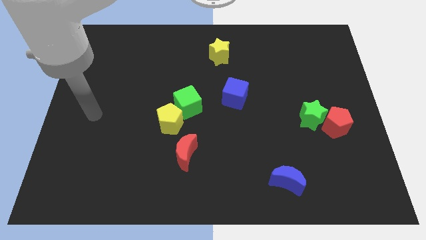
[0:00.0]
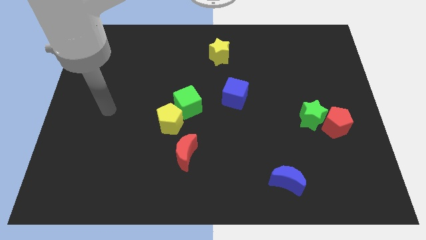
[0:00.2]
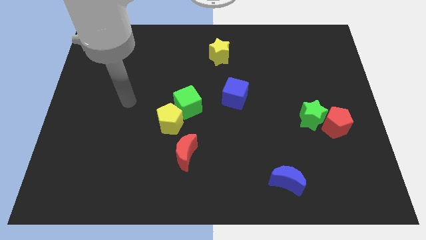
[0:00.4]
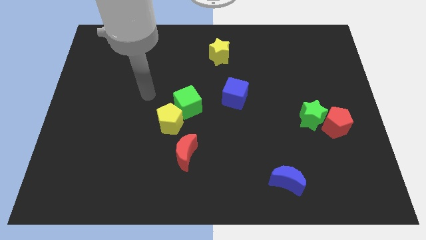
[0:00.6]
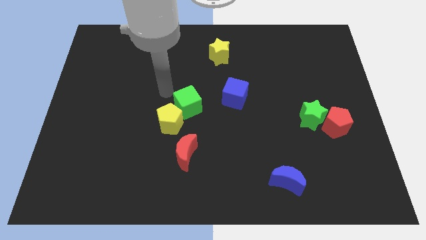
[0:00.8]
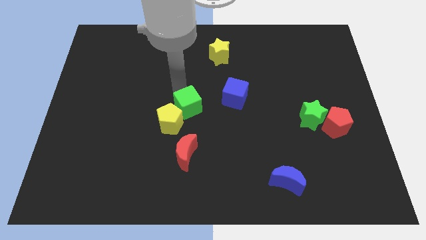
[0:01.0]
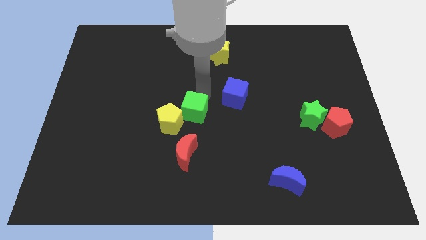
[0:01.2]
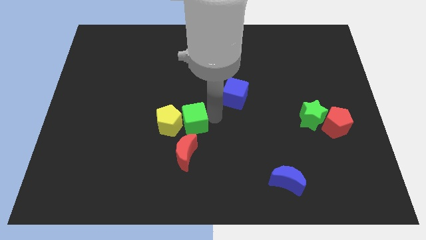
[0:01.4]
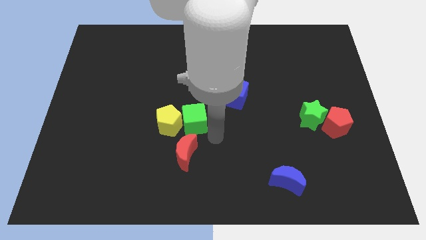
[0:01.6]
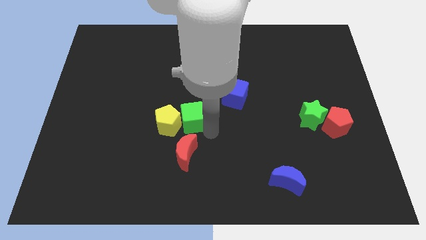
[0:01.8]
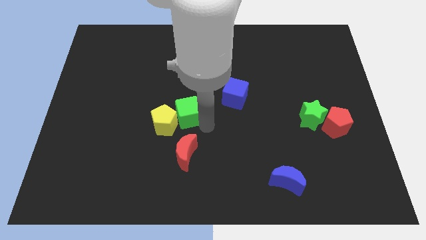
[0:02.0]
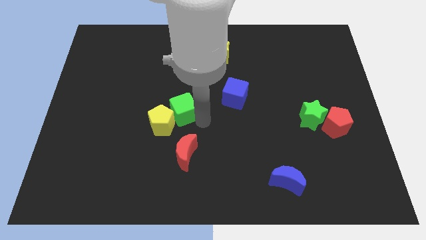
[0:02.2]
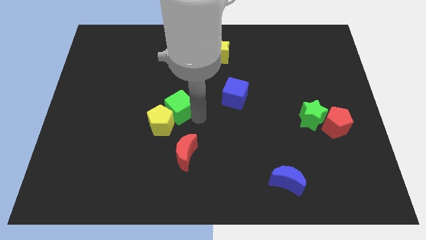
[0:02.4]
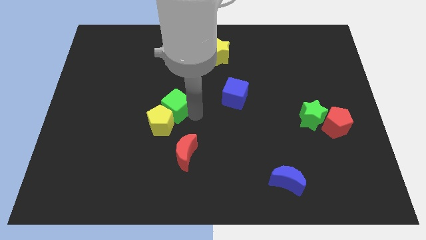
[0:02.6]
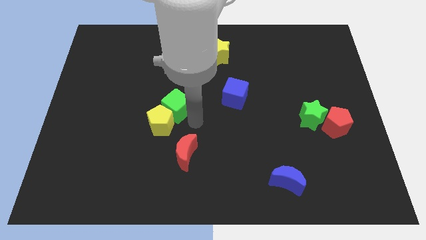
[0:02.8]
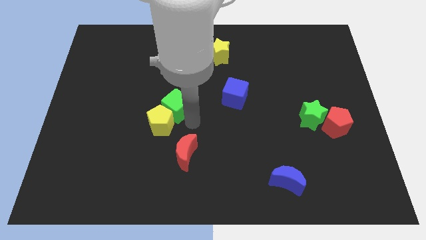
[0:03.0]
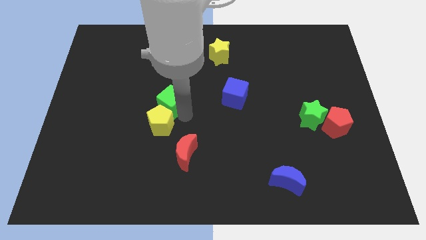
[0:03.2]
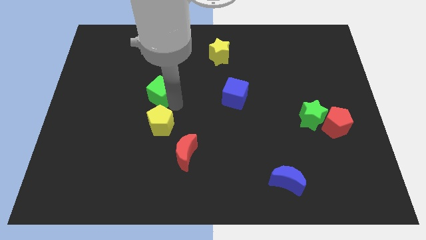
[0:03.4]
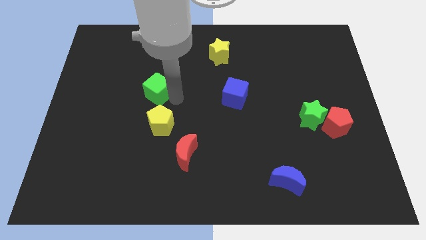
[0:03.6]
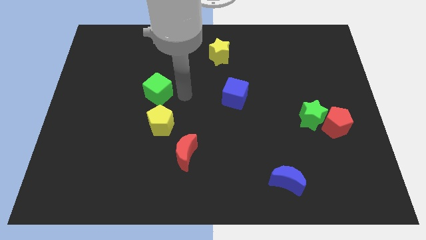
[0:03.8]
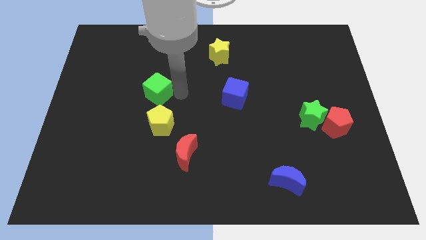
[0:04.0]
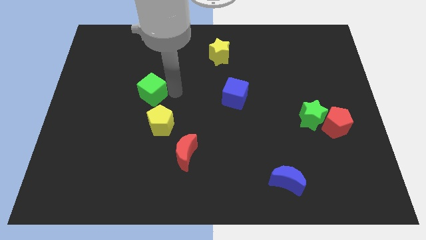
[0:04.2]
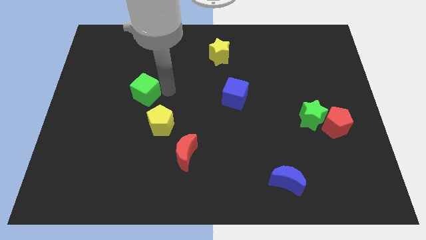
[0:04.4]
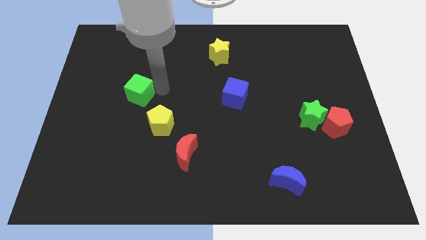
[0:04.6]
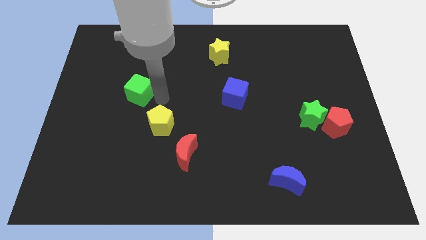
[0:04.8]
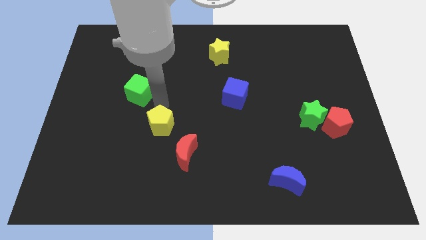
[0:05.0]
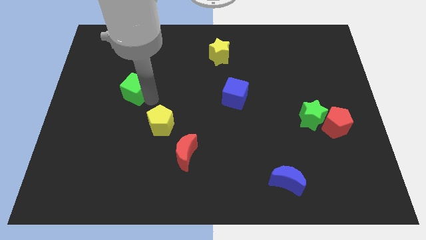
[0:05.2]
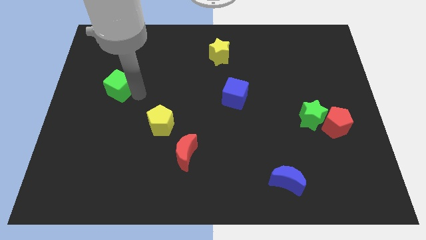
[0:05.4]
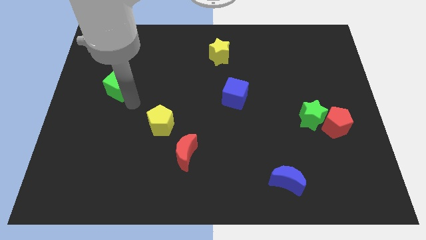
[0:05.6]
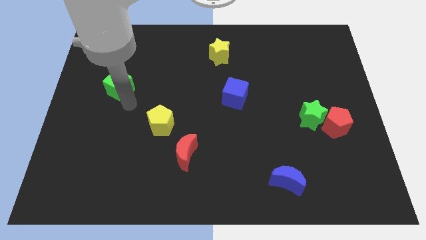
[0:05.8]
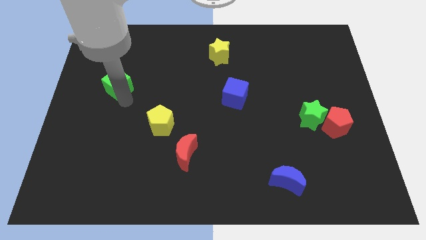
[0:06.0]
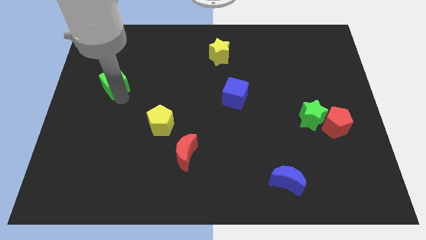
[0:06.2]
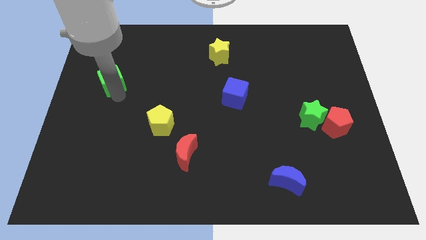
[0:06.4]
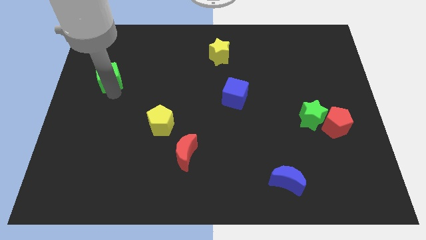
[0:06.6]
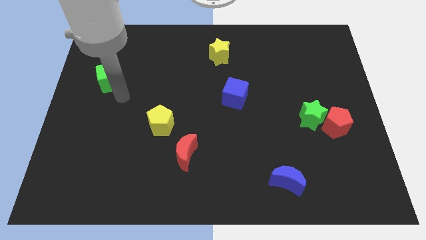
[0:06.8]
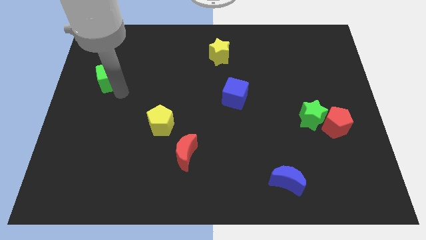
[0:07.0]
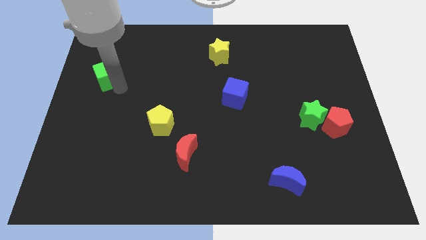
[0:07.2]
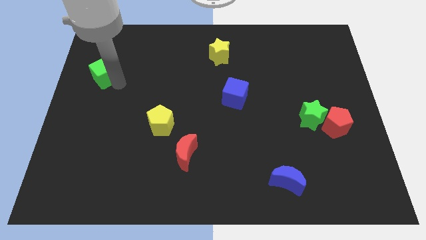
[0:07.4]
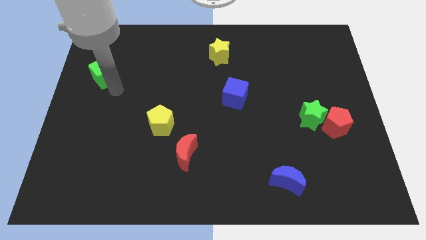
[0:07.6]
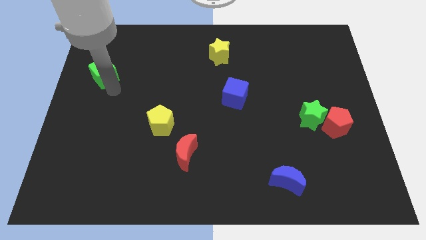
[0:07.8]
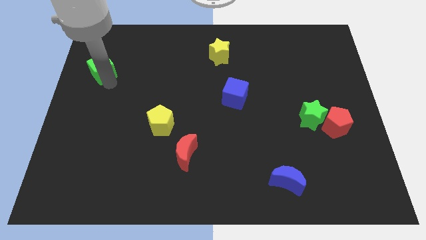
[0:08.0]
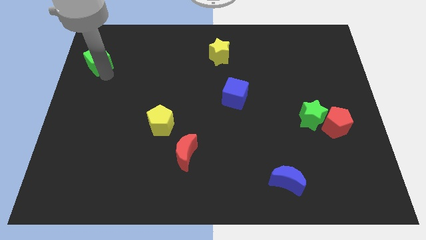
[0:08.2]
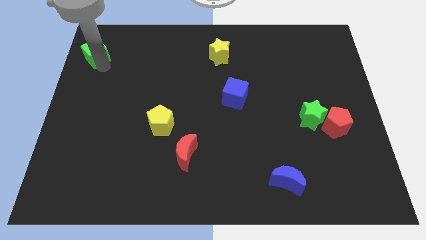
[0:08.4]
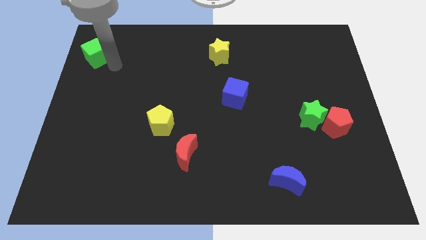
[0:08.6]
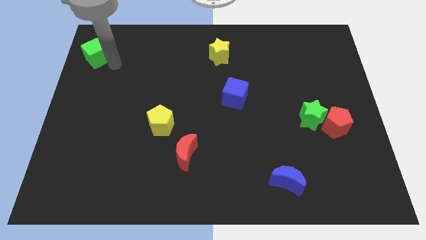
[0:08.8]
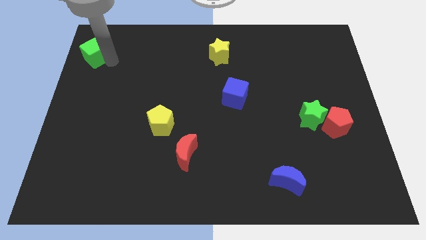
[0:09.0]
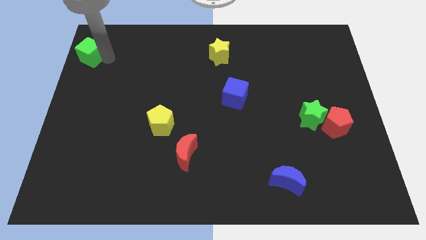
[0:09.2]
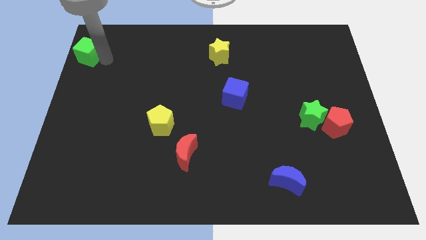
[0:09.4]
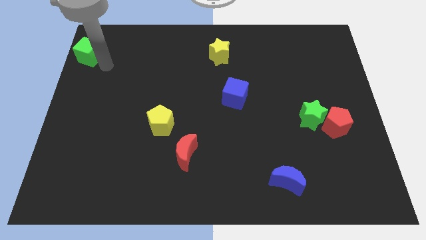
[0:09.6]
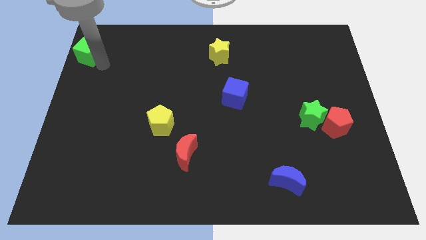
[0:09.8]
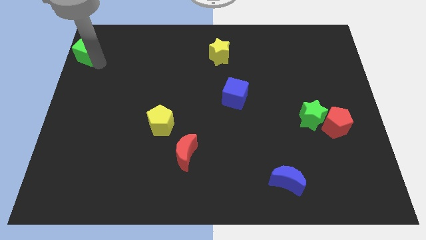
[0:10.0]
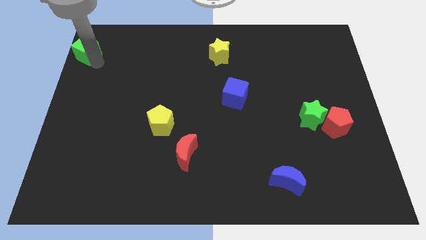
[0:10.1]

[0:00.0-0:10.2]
push the green cube to the upper left corner

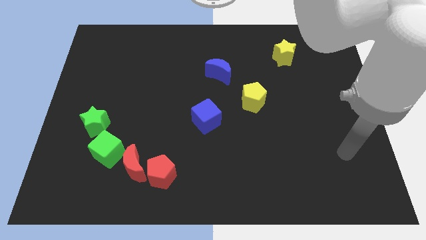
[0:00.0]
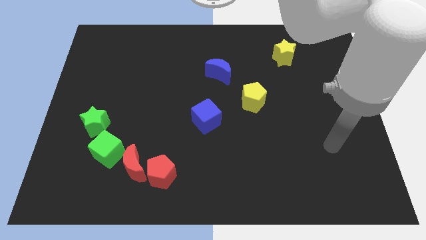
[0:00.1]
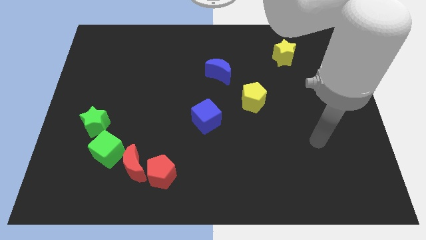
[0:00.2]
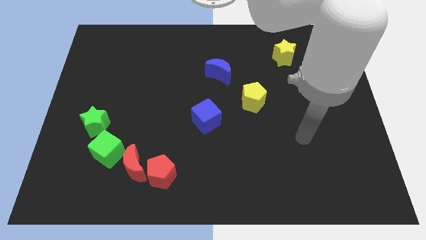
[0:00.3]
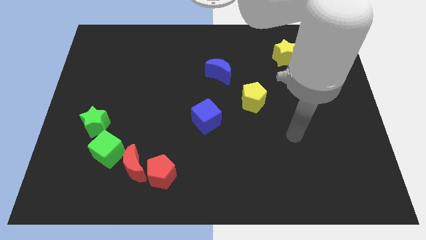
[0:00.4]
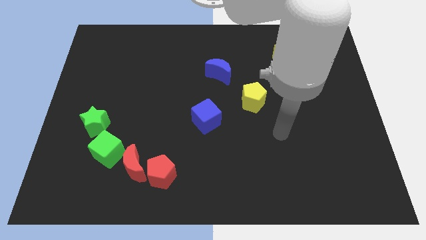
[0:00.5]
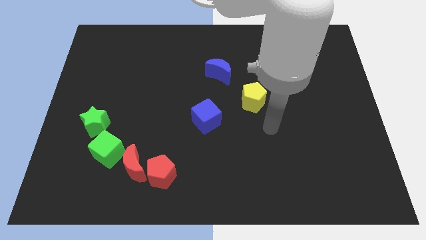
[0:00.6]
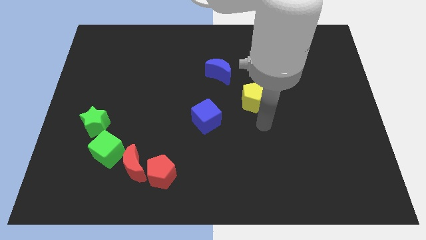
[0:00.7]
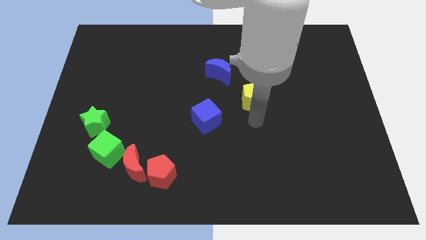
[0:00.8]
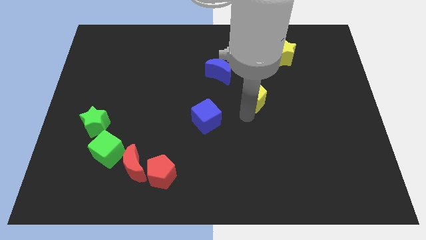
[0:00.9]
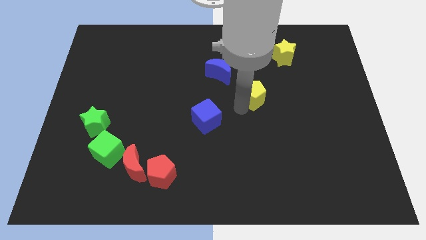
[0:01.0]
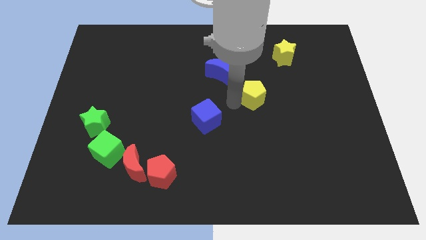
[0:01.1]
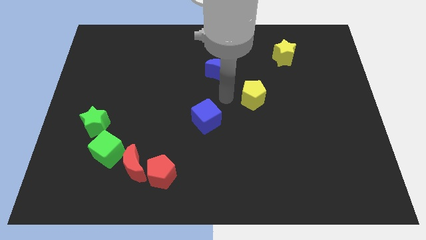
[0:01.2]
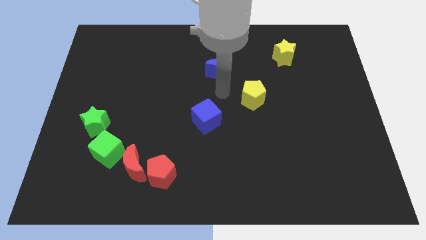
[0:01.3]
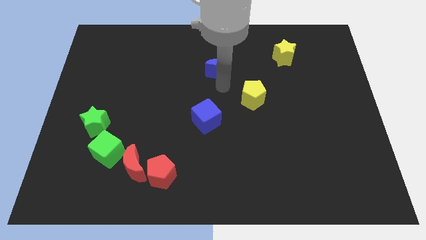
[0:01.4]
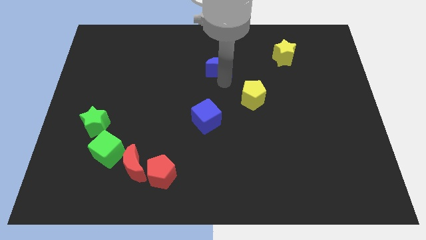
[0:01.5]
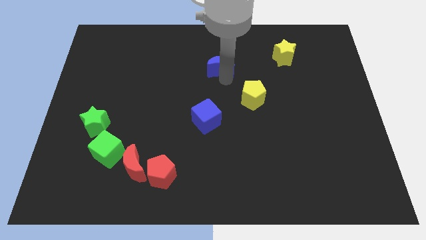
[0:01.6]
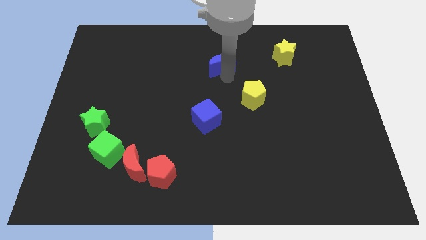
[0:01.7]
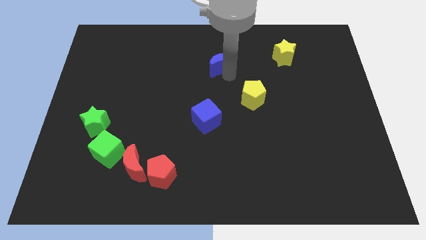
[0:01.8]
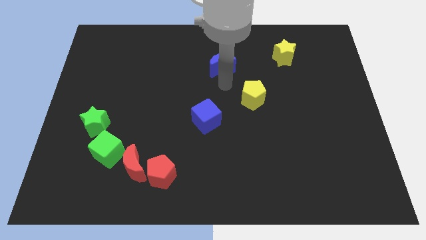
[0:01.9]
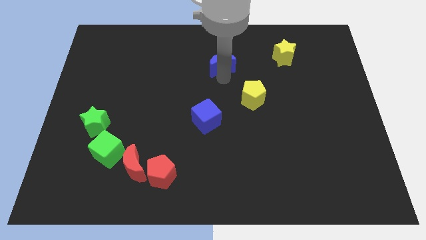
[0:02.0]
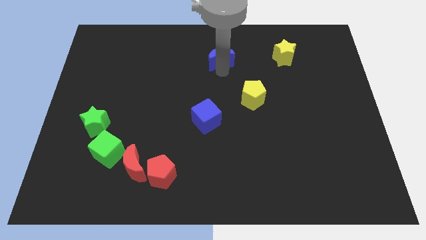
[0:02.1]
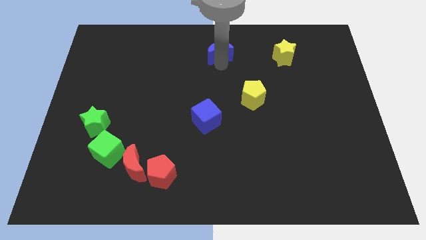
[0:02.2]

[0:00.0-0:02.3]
push the blue moon to the towards your base

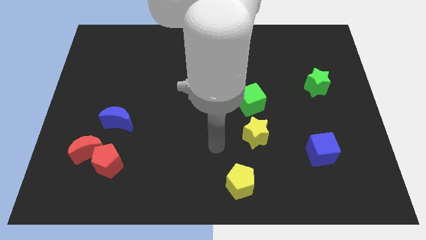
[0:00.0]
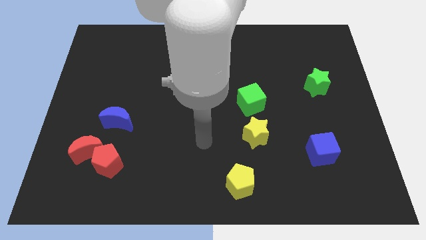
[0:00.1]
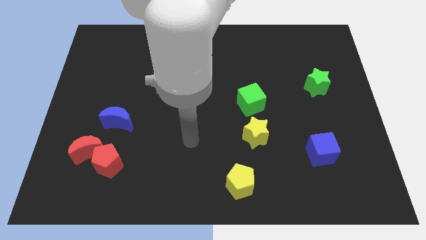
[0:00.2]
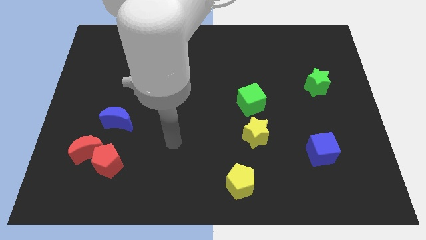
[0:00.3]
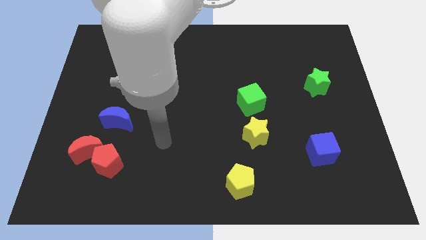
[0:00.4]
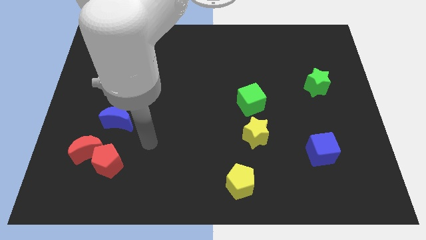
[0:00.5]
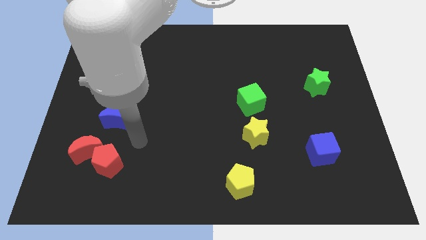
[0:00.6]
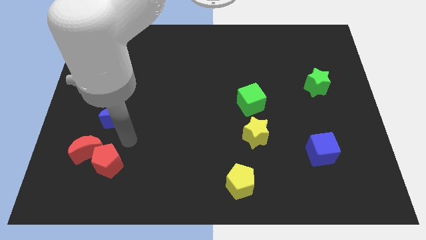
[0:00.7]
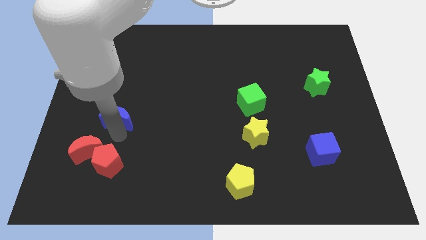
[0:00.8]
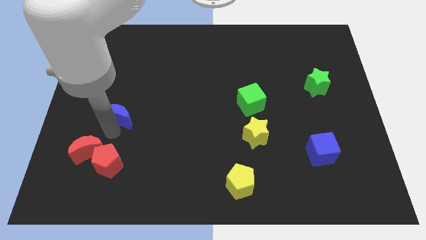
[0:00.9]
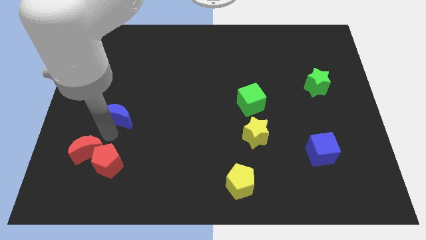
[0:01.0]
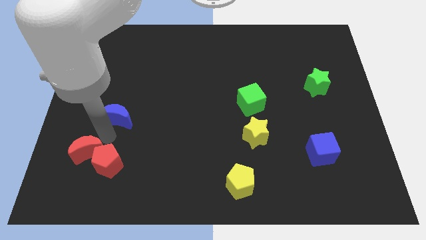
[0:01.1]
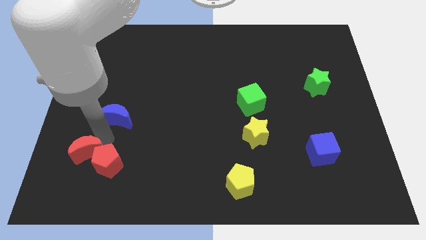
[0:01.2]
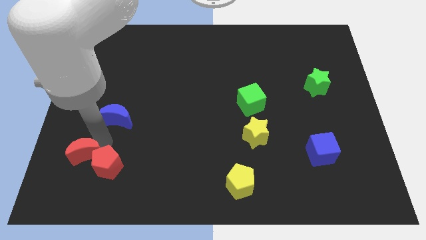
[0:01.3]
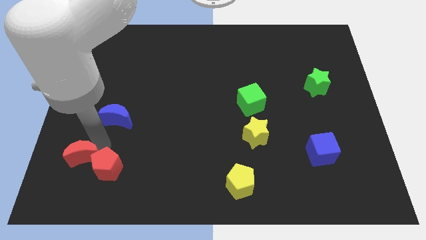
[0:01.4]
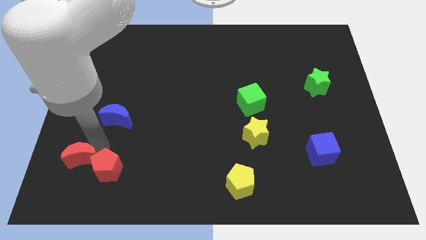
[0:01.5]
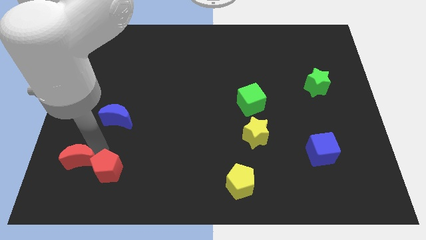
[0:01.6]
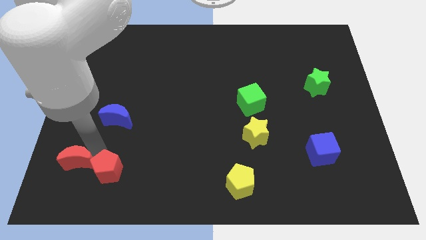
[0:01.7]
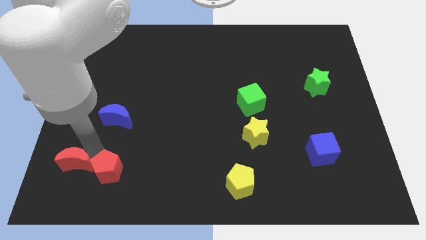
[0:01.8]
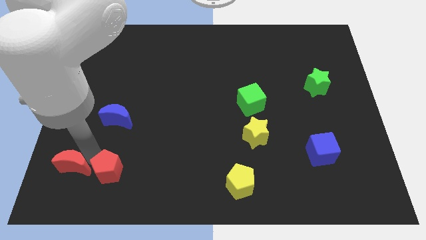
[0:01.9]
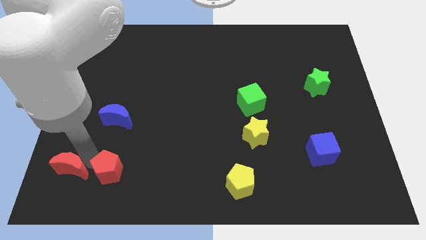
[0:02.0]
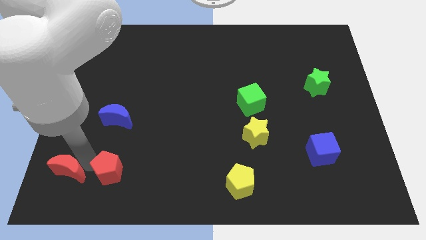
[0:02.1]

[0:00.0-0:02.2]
slide the red moon to the bottom left
